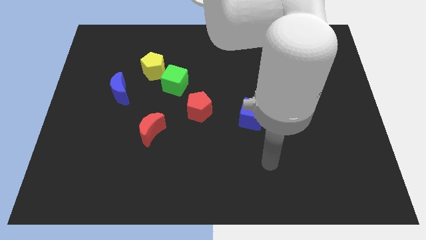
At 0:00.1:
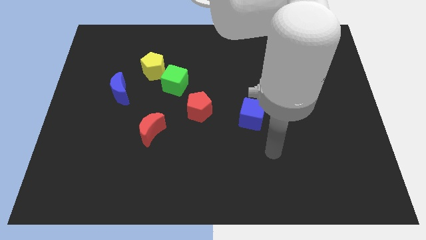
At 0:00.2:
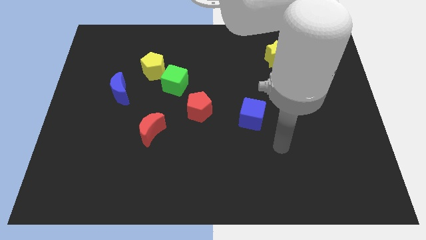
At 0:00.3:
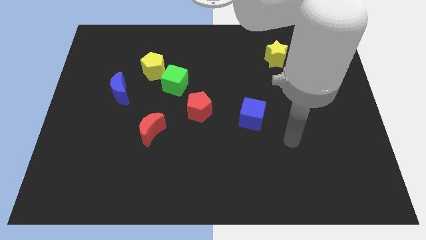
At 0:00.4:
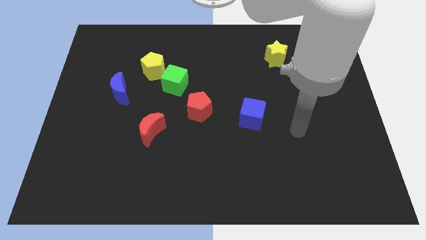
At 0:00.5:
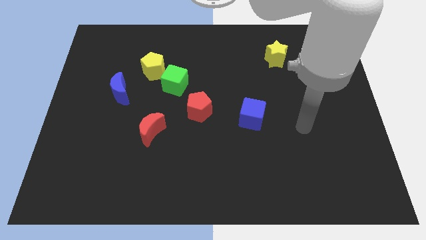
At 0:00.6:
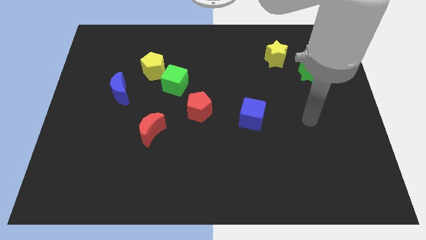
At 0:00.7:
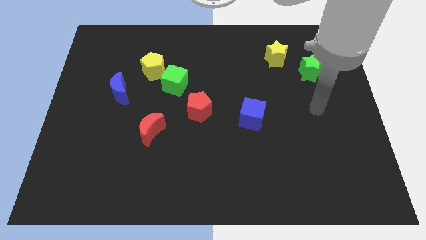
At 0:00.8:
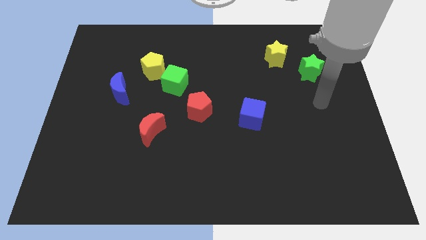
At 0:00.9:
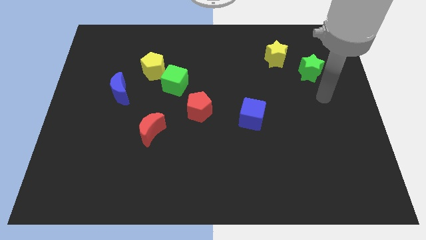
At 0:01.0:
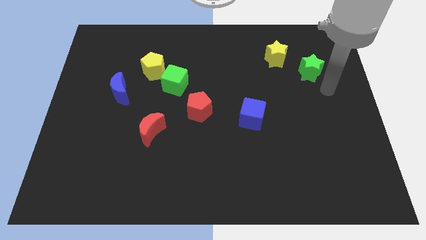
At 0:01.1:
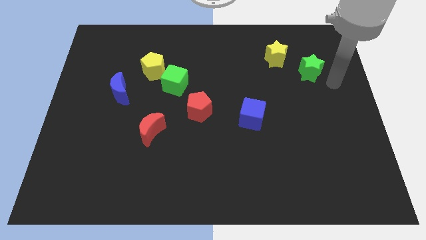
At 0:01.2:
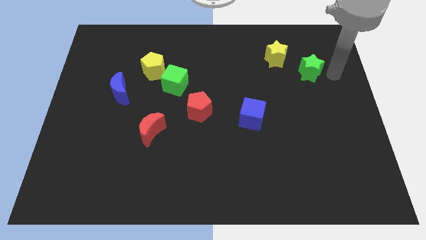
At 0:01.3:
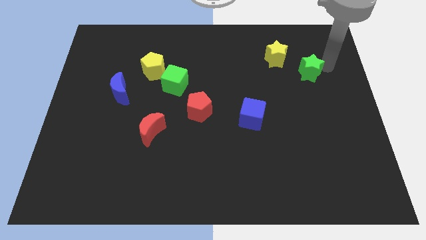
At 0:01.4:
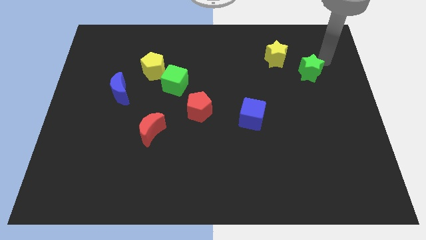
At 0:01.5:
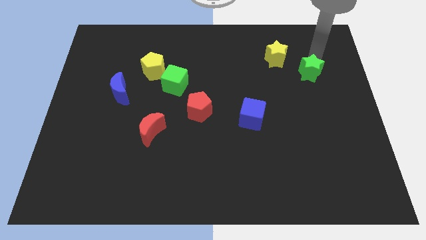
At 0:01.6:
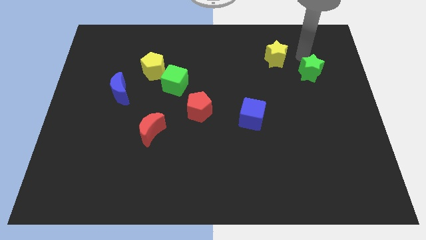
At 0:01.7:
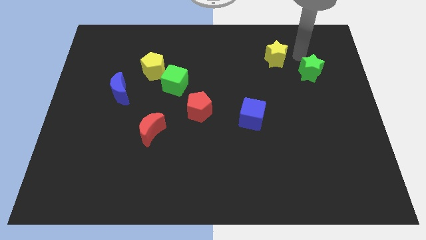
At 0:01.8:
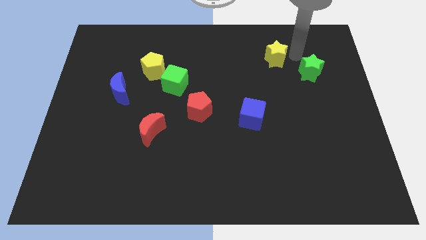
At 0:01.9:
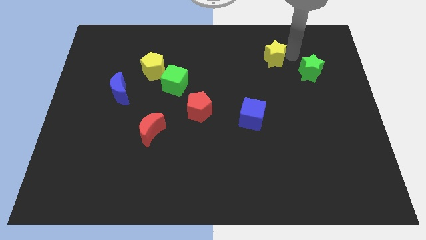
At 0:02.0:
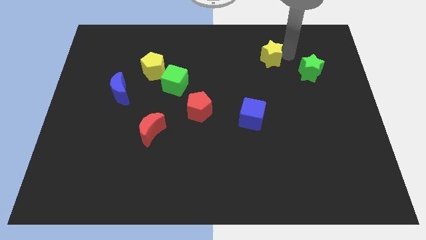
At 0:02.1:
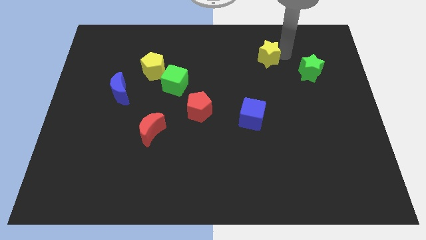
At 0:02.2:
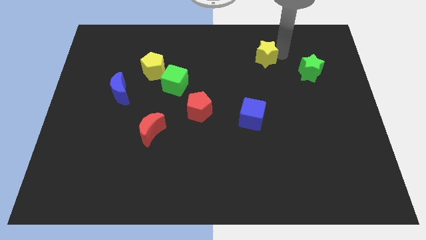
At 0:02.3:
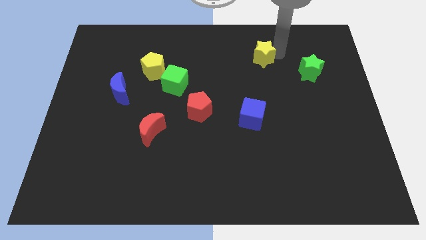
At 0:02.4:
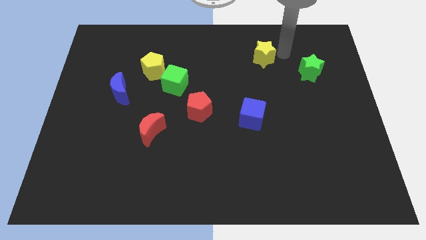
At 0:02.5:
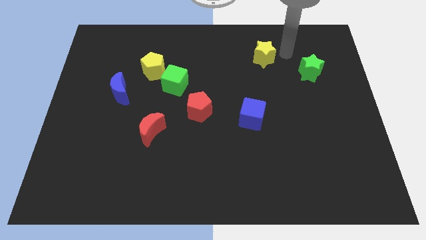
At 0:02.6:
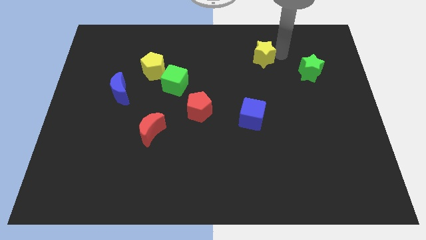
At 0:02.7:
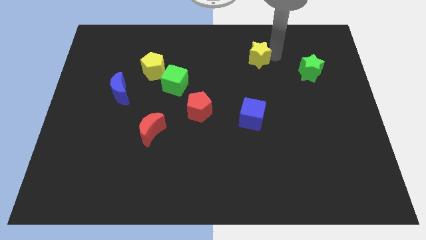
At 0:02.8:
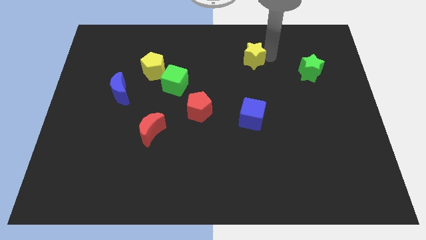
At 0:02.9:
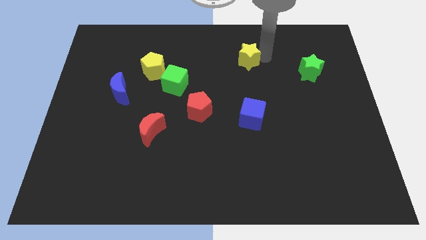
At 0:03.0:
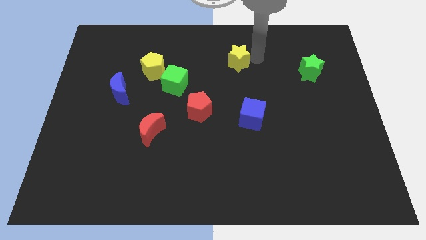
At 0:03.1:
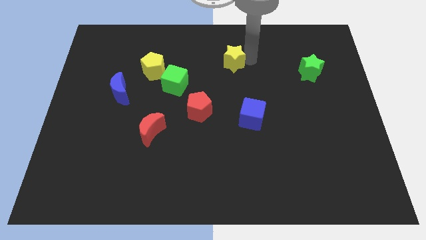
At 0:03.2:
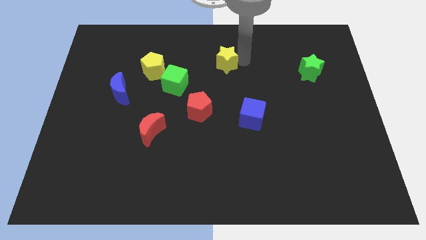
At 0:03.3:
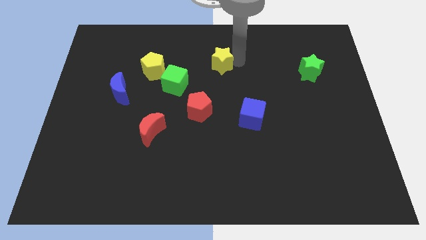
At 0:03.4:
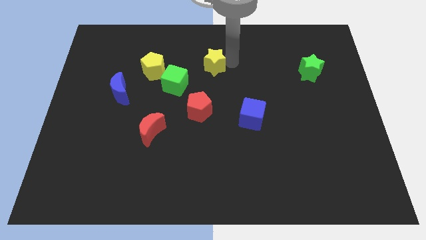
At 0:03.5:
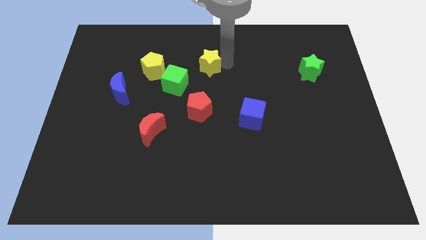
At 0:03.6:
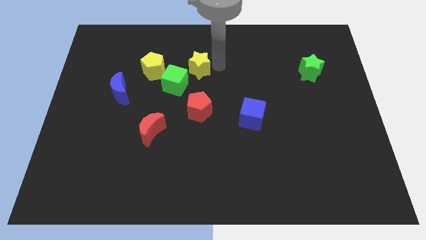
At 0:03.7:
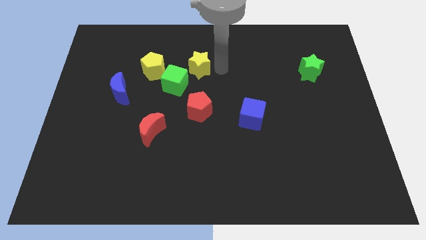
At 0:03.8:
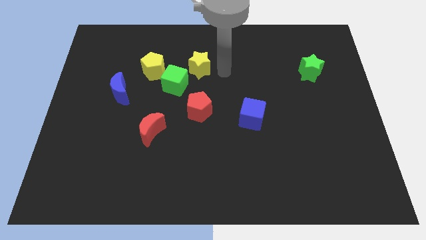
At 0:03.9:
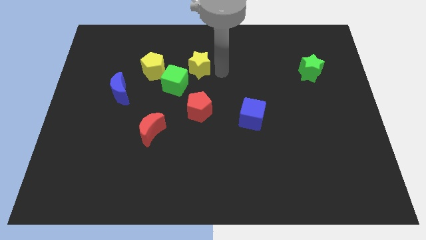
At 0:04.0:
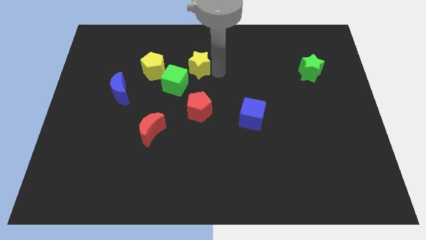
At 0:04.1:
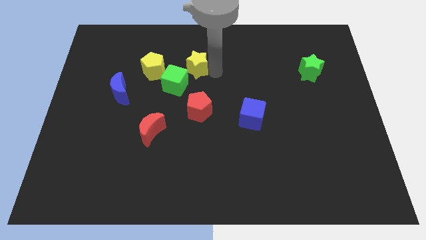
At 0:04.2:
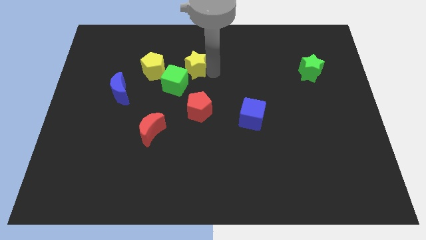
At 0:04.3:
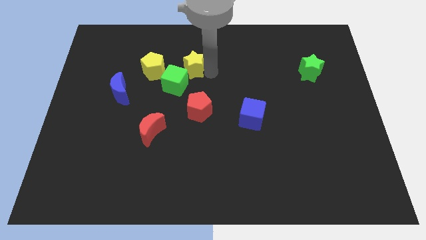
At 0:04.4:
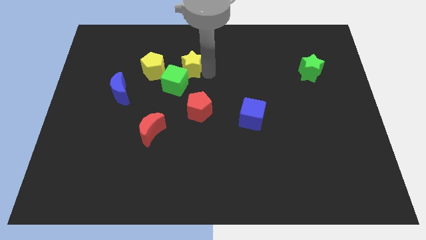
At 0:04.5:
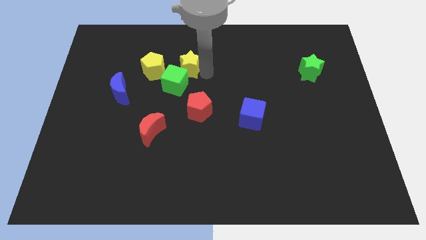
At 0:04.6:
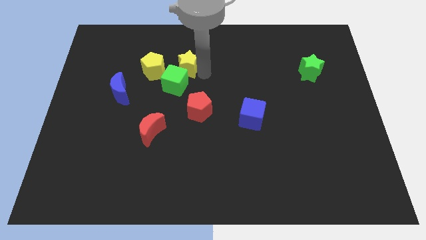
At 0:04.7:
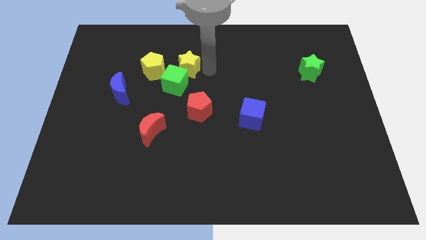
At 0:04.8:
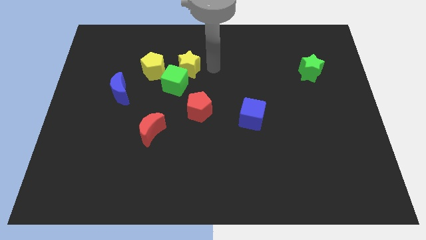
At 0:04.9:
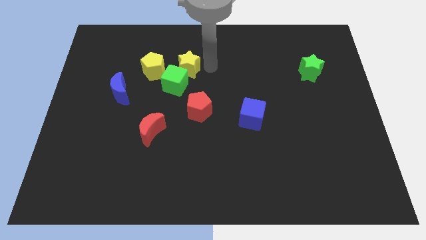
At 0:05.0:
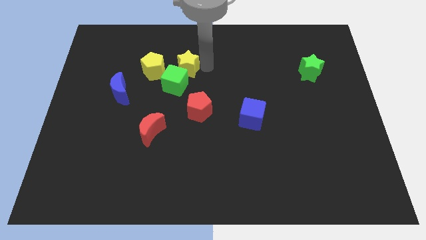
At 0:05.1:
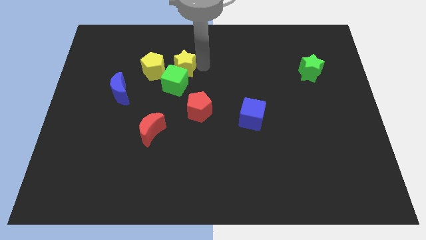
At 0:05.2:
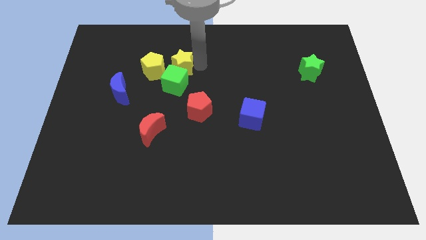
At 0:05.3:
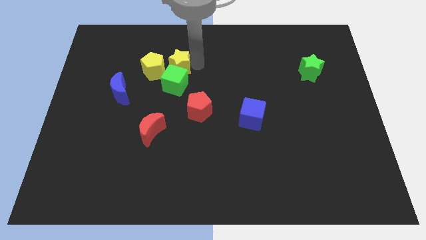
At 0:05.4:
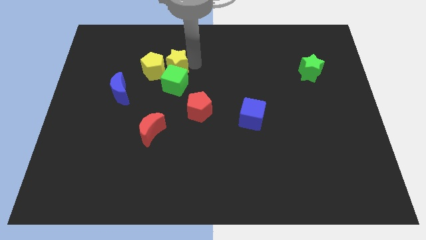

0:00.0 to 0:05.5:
slide the yellow star close to the yellow pentagon

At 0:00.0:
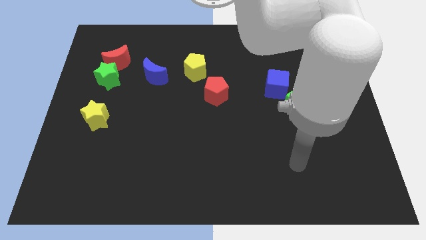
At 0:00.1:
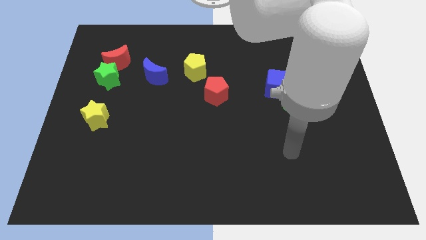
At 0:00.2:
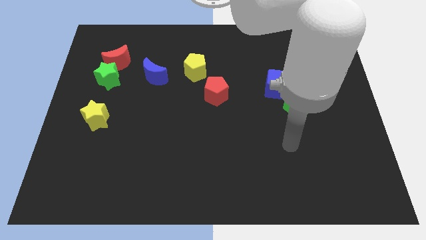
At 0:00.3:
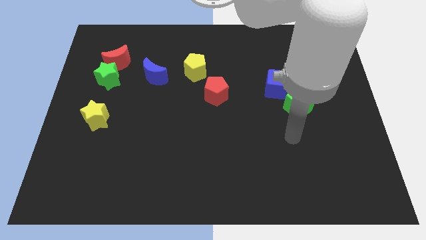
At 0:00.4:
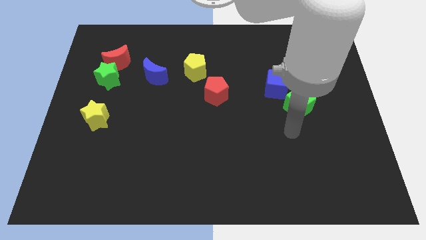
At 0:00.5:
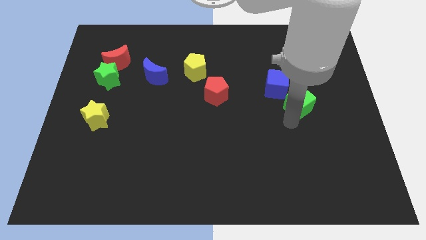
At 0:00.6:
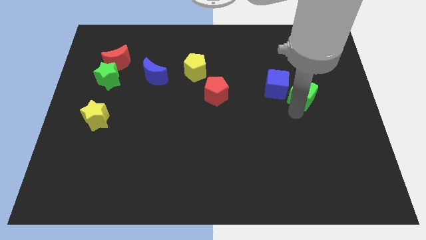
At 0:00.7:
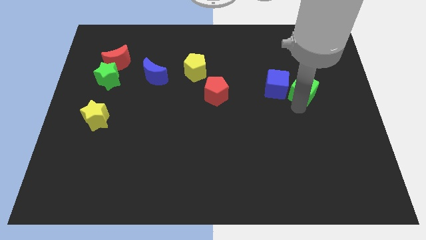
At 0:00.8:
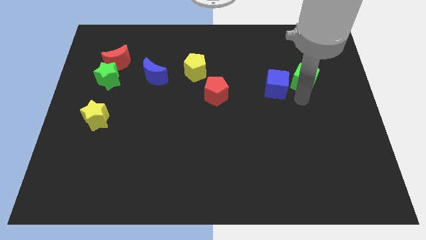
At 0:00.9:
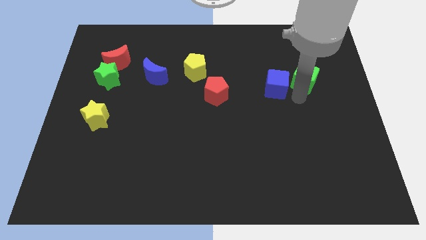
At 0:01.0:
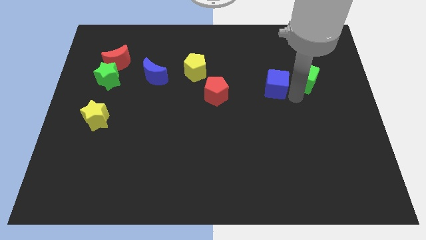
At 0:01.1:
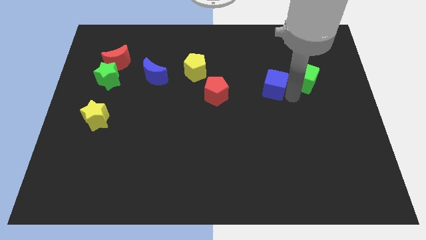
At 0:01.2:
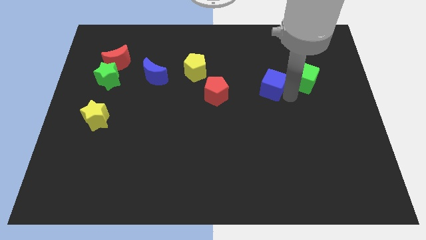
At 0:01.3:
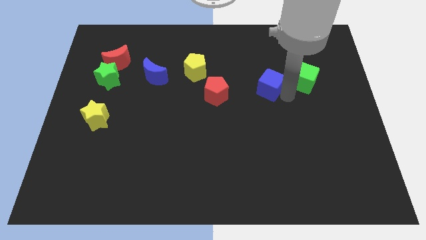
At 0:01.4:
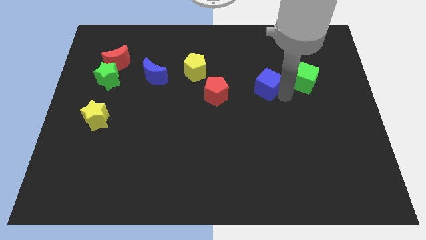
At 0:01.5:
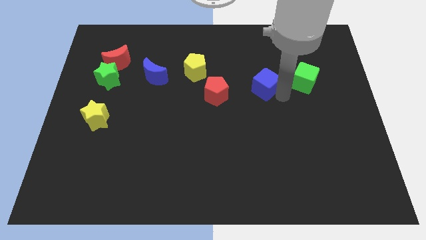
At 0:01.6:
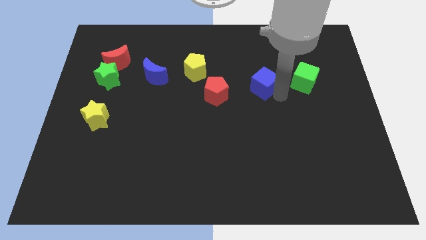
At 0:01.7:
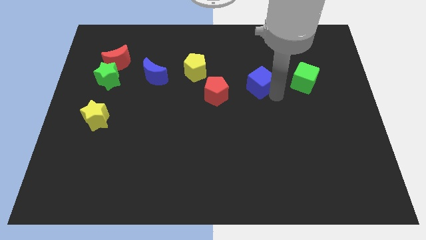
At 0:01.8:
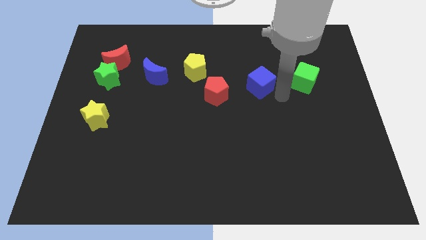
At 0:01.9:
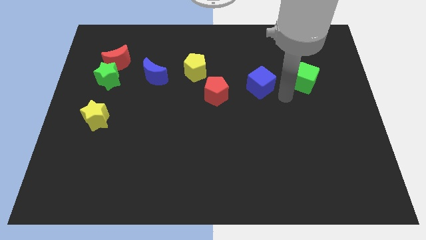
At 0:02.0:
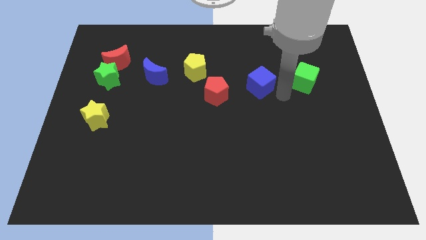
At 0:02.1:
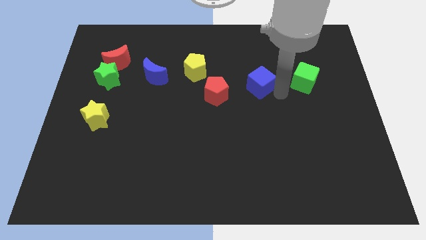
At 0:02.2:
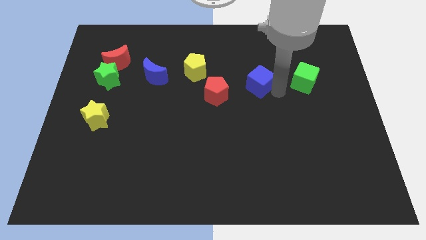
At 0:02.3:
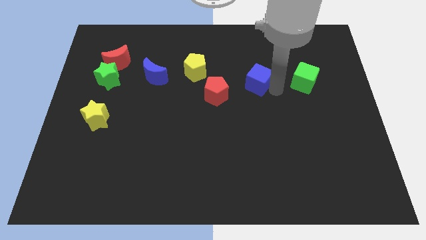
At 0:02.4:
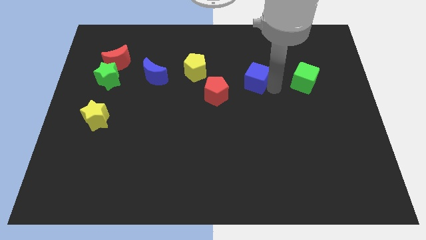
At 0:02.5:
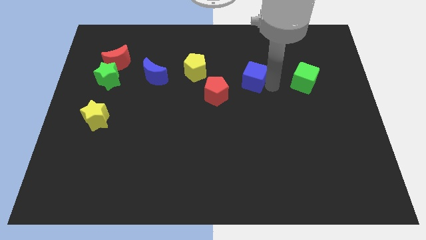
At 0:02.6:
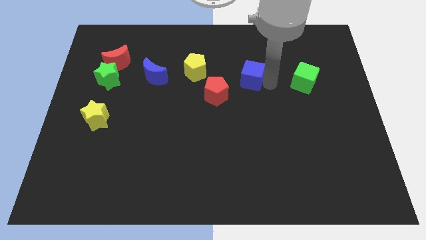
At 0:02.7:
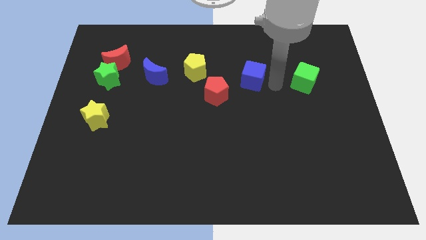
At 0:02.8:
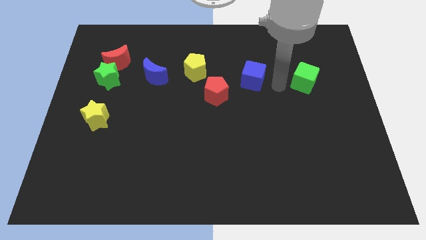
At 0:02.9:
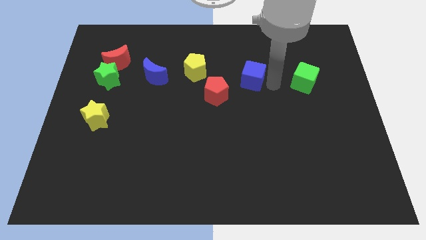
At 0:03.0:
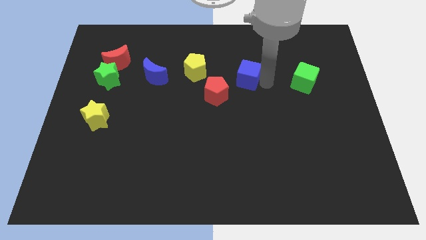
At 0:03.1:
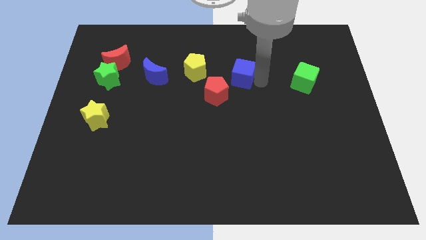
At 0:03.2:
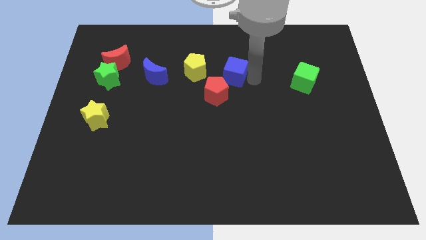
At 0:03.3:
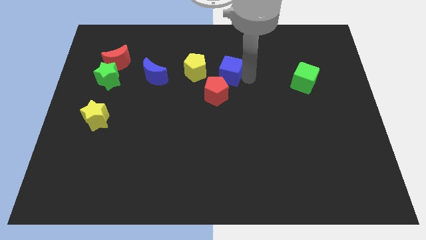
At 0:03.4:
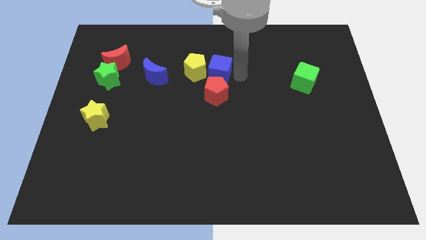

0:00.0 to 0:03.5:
move the blue cube to the yellow pentagon
